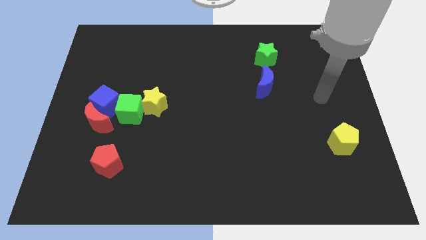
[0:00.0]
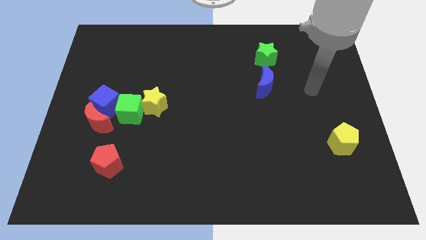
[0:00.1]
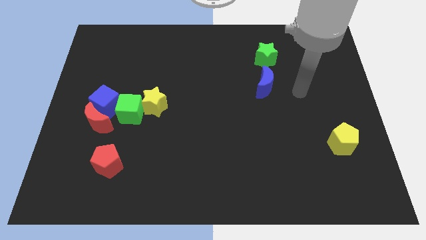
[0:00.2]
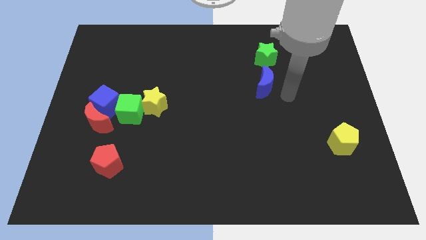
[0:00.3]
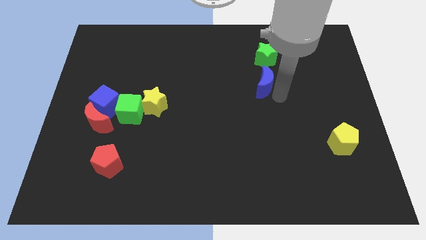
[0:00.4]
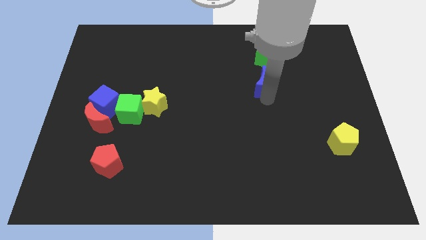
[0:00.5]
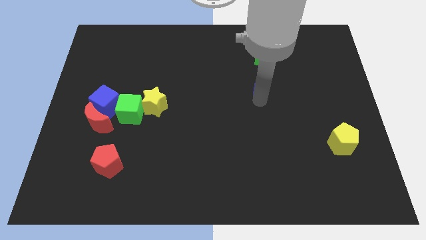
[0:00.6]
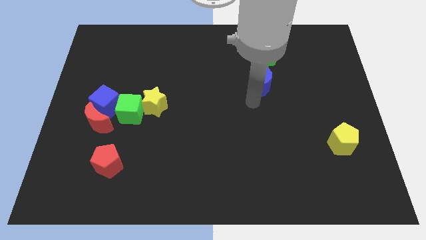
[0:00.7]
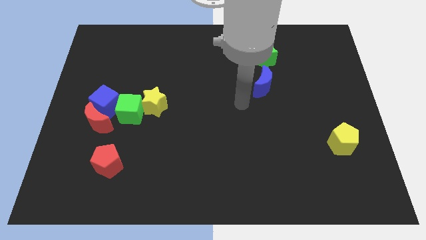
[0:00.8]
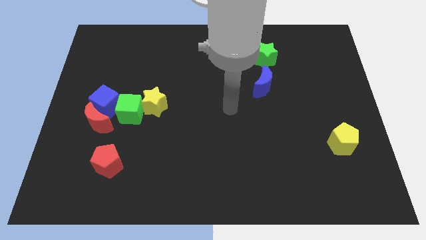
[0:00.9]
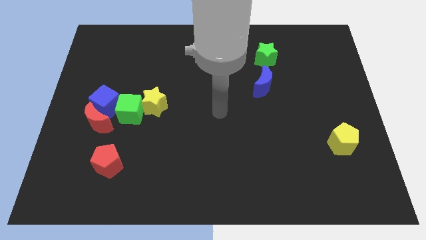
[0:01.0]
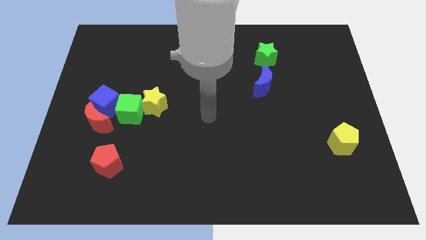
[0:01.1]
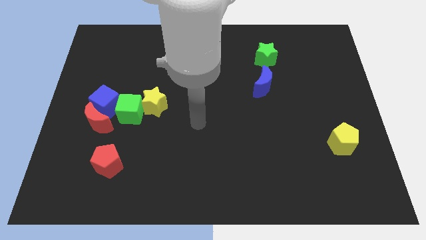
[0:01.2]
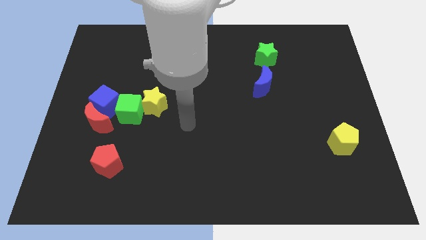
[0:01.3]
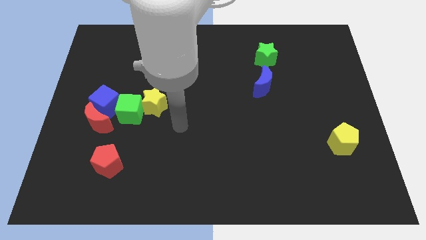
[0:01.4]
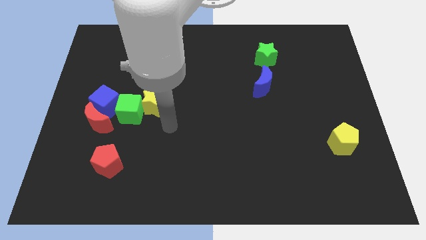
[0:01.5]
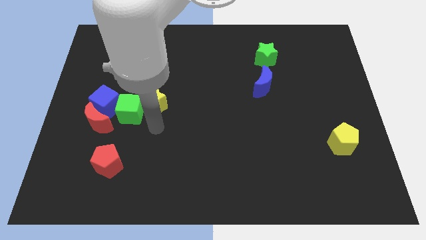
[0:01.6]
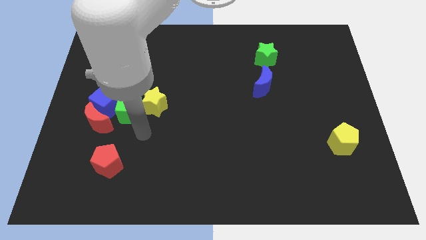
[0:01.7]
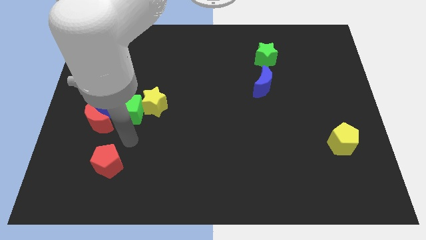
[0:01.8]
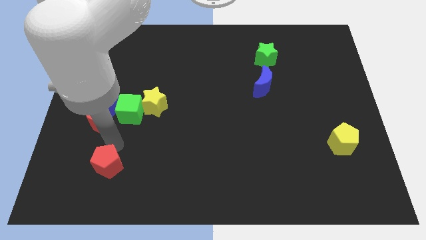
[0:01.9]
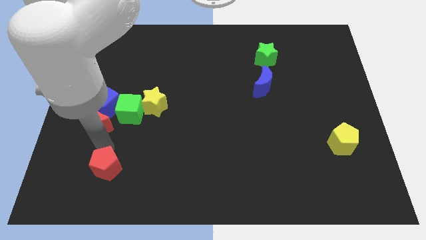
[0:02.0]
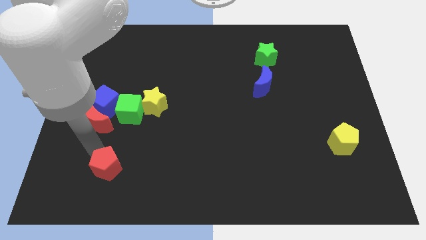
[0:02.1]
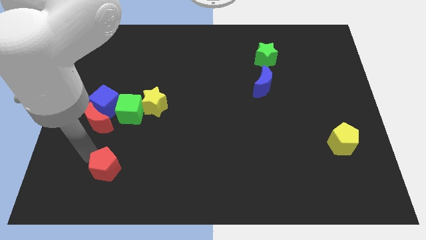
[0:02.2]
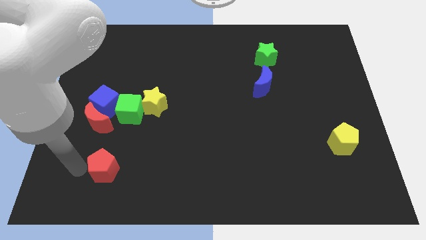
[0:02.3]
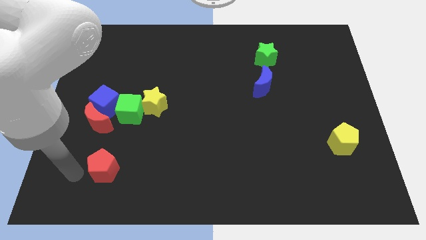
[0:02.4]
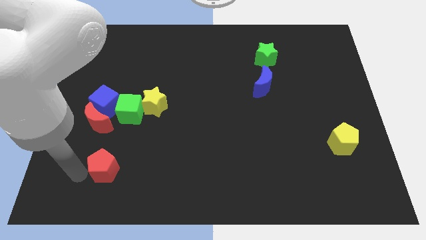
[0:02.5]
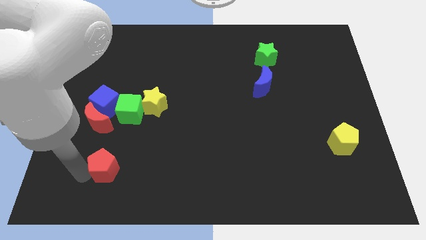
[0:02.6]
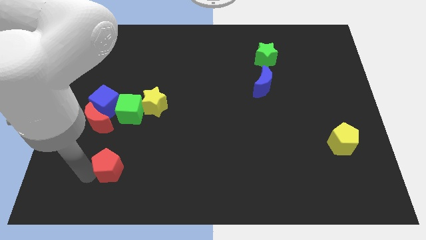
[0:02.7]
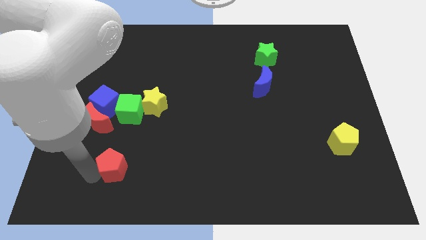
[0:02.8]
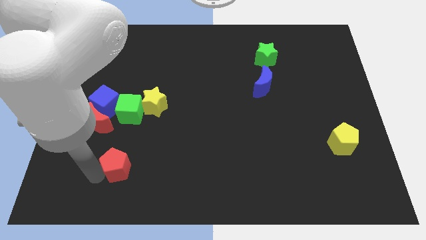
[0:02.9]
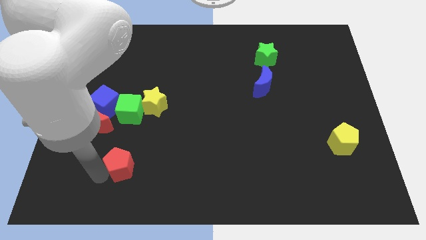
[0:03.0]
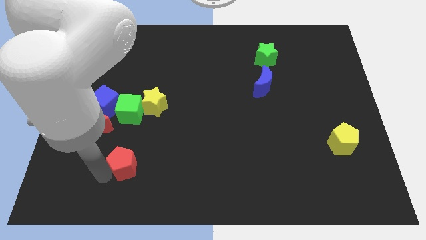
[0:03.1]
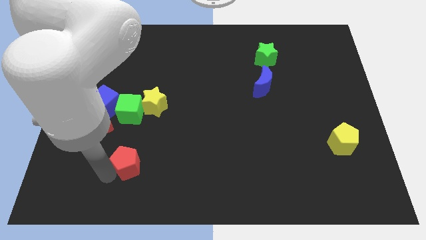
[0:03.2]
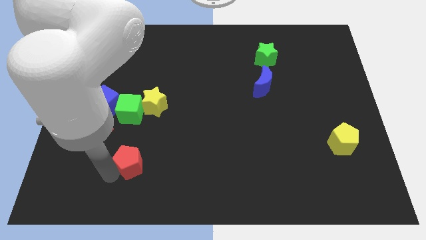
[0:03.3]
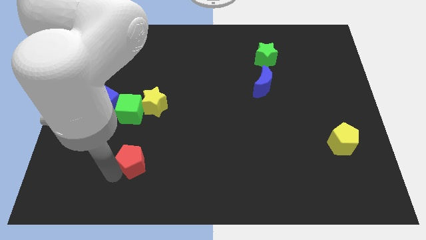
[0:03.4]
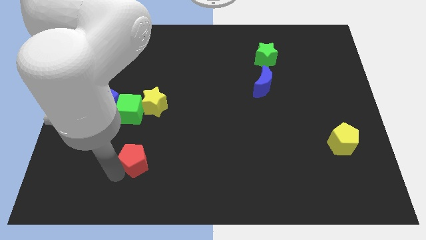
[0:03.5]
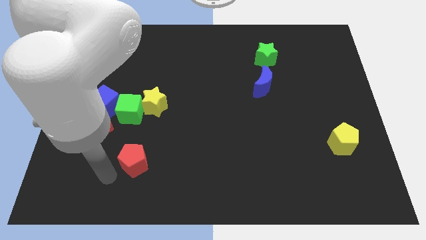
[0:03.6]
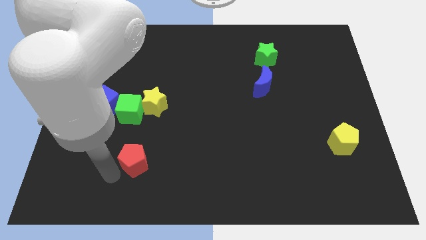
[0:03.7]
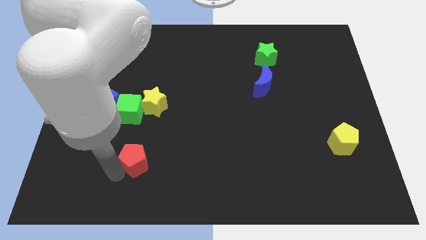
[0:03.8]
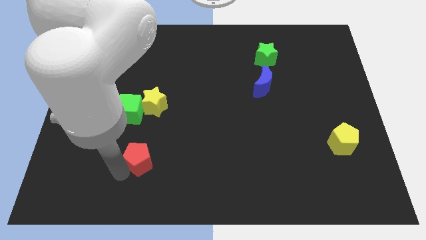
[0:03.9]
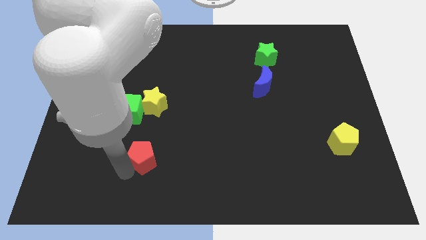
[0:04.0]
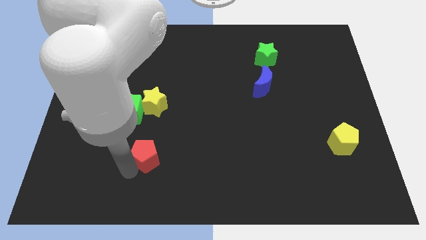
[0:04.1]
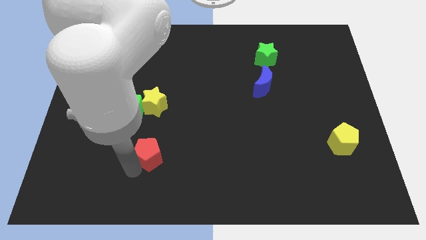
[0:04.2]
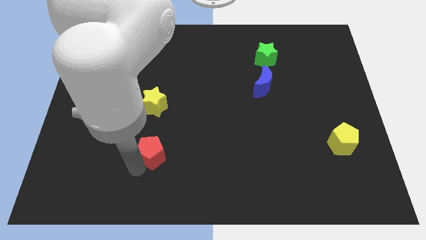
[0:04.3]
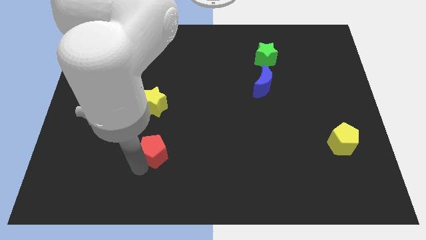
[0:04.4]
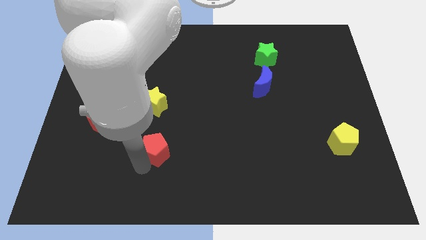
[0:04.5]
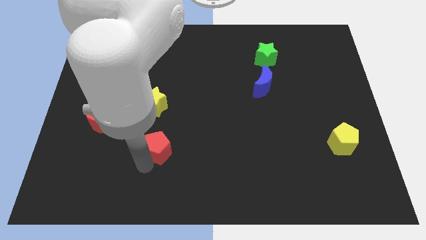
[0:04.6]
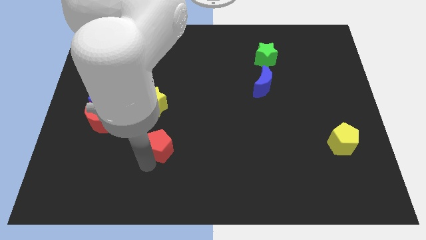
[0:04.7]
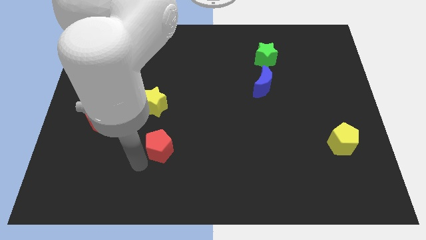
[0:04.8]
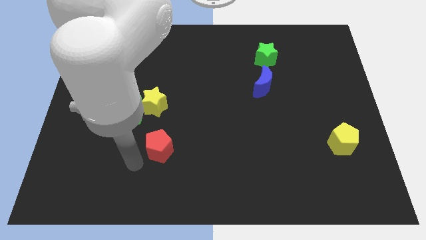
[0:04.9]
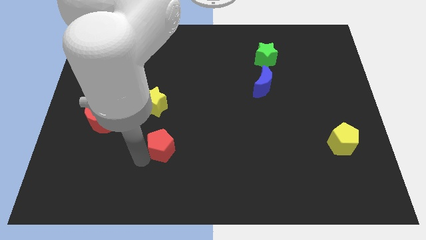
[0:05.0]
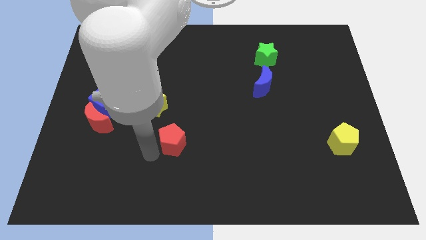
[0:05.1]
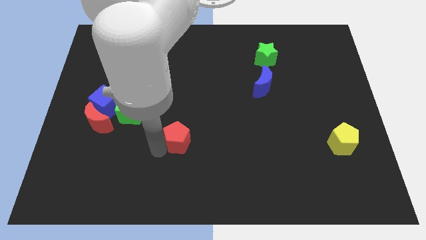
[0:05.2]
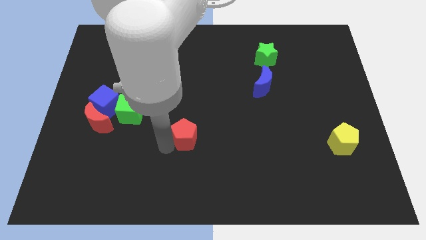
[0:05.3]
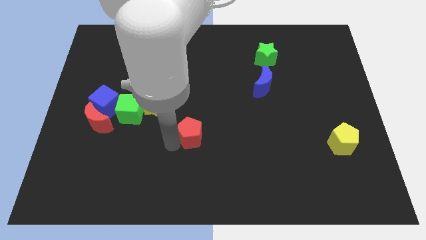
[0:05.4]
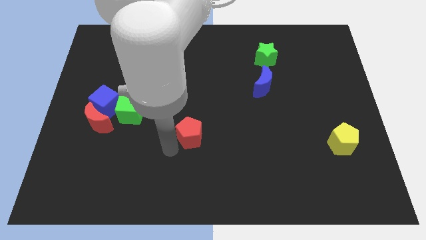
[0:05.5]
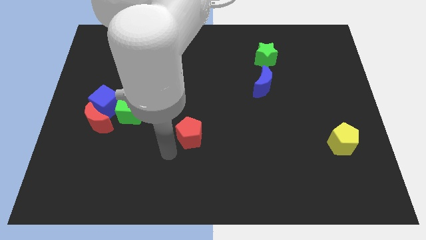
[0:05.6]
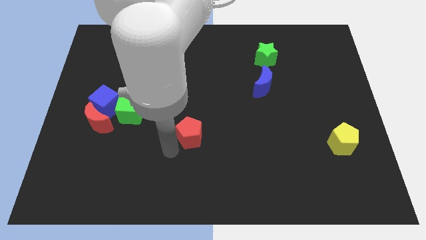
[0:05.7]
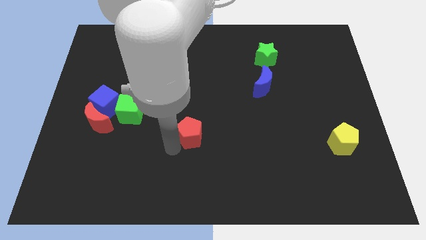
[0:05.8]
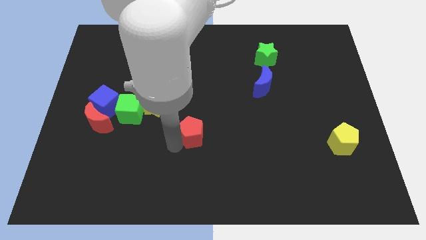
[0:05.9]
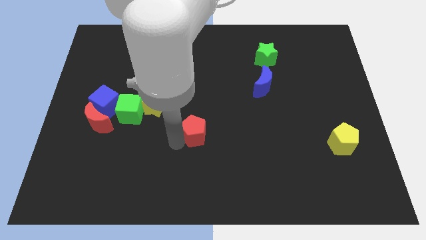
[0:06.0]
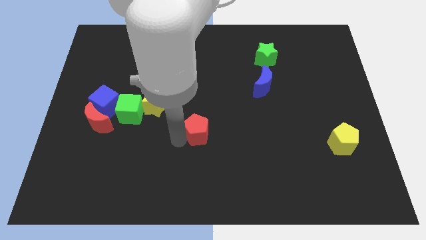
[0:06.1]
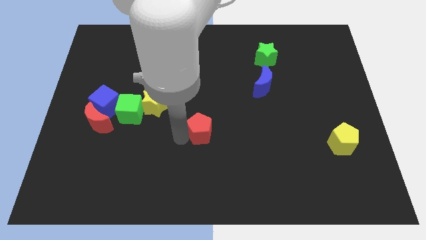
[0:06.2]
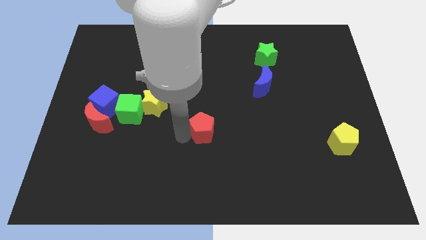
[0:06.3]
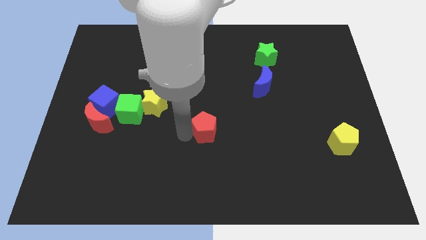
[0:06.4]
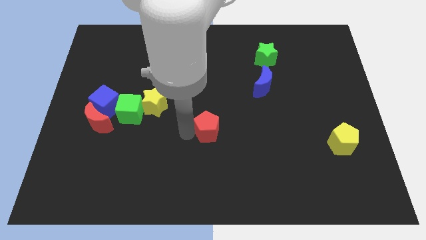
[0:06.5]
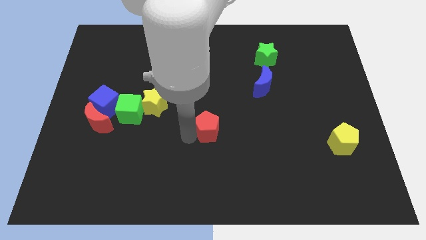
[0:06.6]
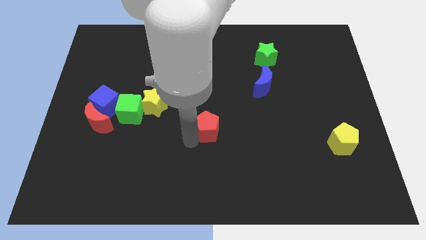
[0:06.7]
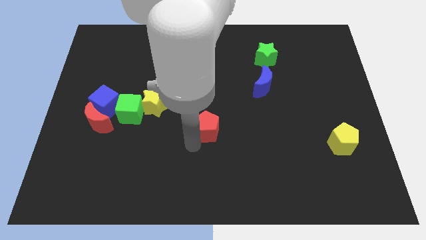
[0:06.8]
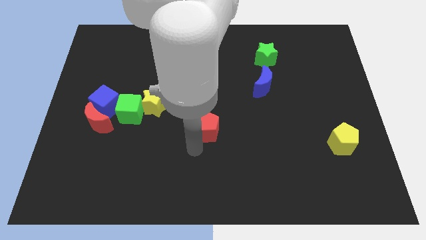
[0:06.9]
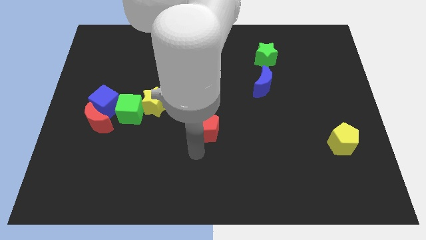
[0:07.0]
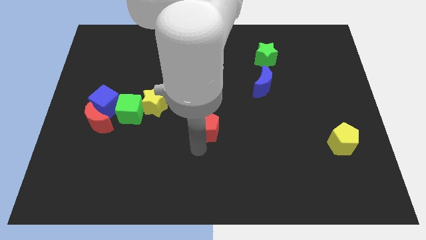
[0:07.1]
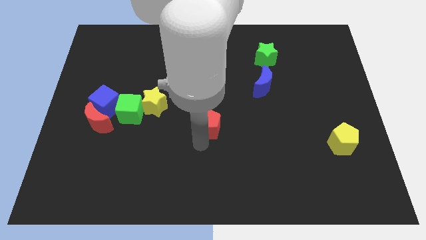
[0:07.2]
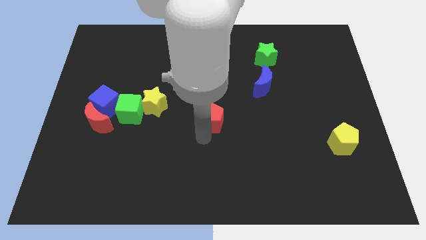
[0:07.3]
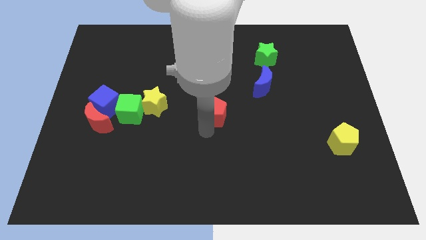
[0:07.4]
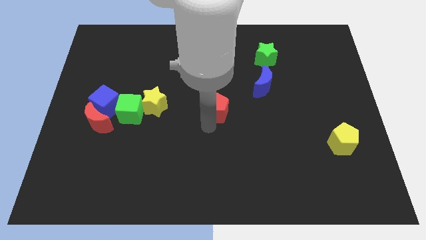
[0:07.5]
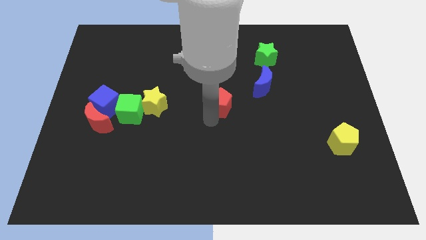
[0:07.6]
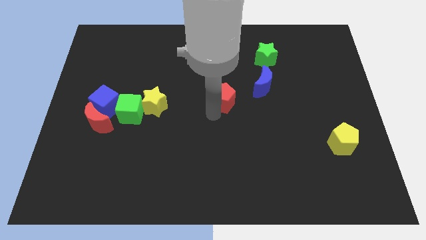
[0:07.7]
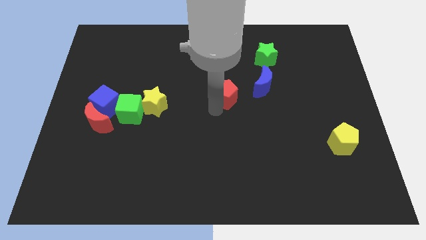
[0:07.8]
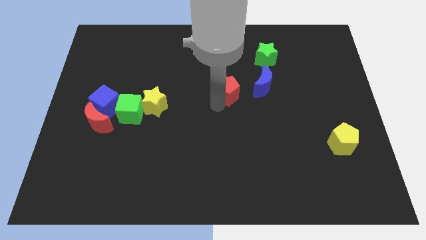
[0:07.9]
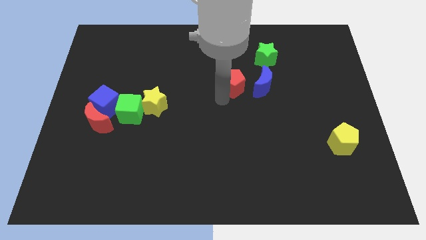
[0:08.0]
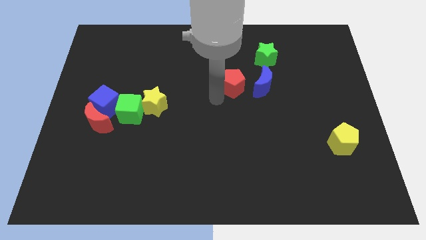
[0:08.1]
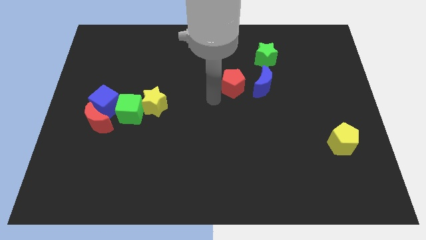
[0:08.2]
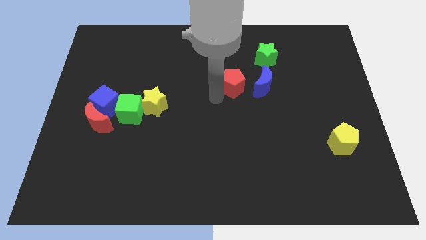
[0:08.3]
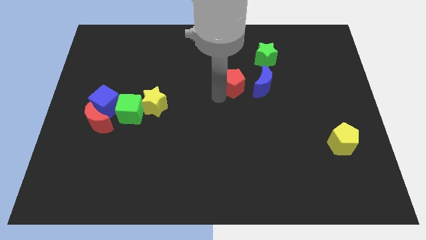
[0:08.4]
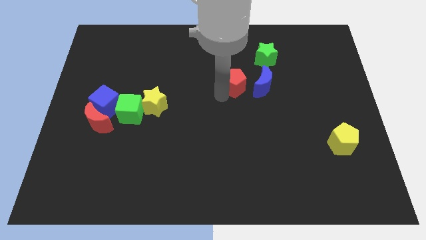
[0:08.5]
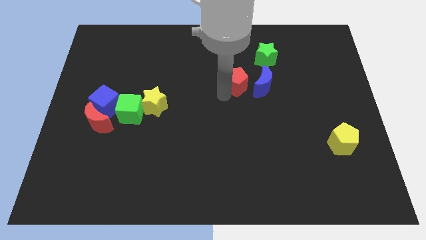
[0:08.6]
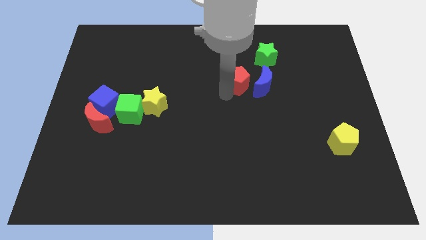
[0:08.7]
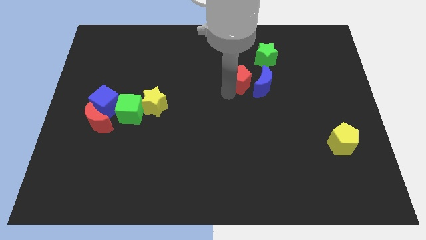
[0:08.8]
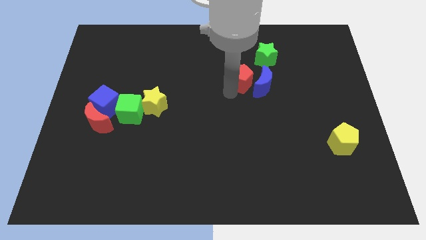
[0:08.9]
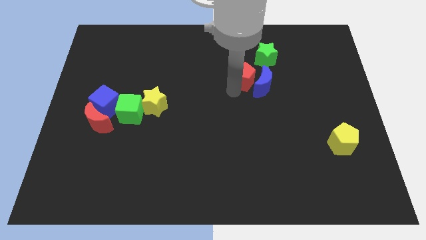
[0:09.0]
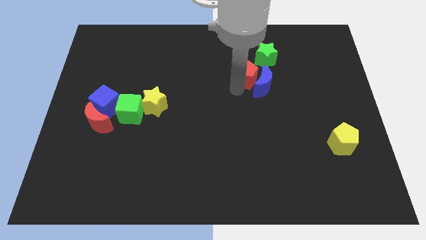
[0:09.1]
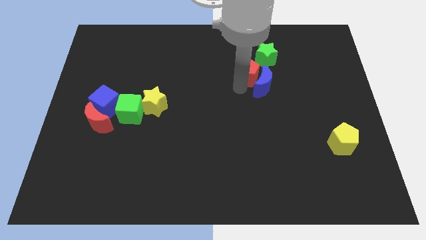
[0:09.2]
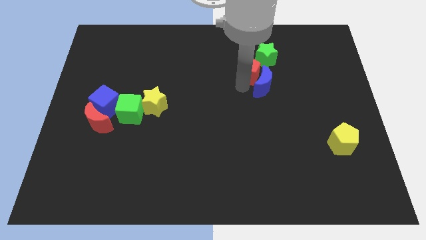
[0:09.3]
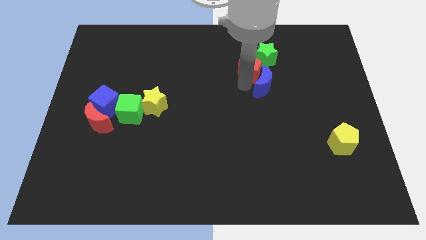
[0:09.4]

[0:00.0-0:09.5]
slide the red pentagon close to the green star
